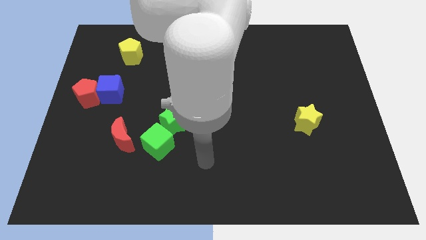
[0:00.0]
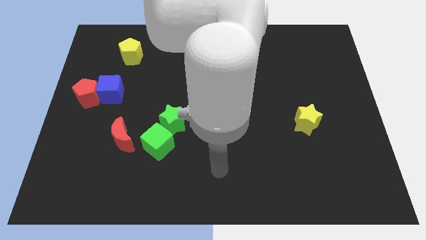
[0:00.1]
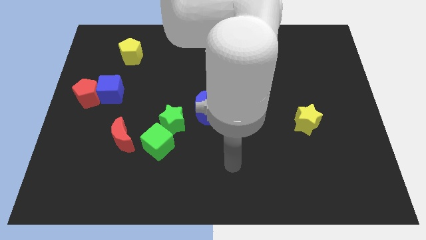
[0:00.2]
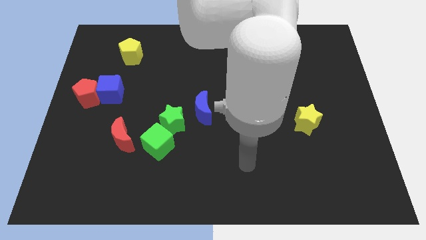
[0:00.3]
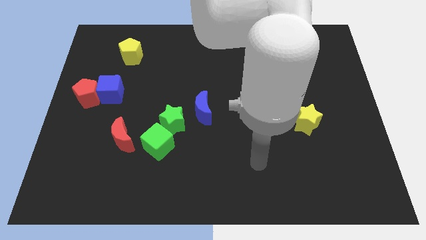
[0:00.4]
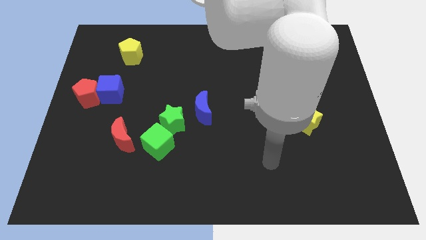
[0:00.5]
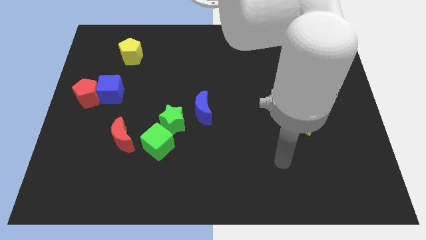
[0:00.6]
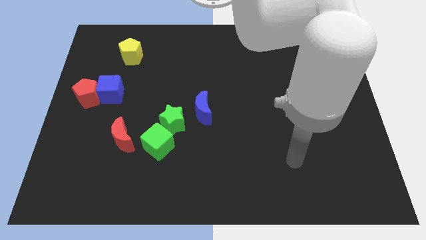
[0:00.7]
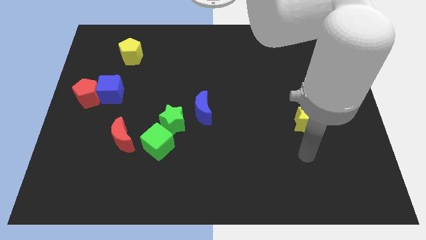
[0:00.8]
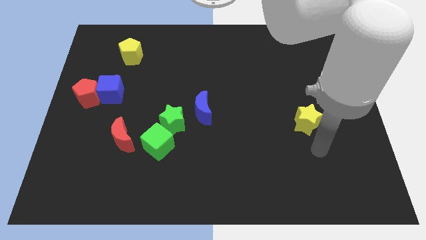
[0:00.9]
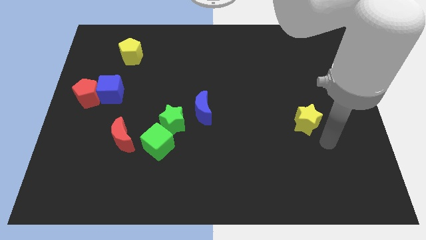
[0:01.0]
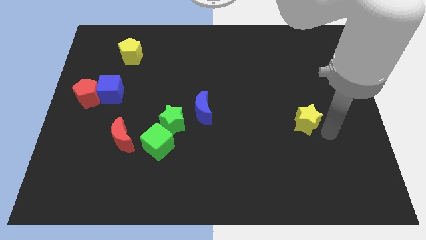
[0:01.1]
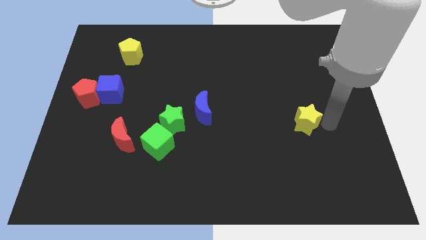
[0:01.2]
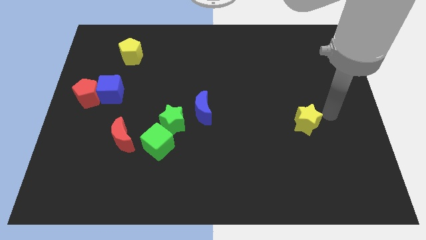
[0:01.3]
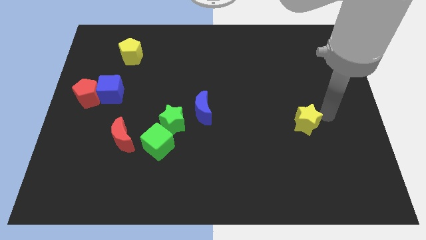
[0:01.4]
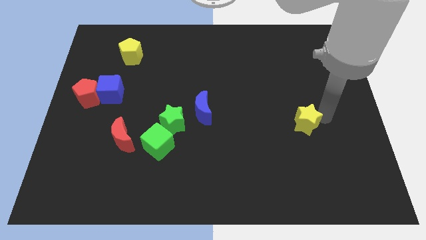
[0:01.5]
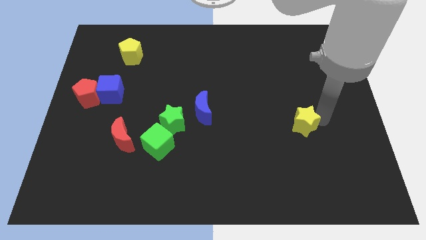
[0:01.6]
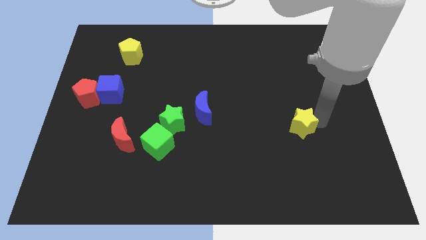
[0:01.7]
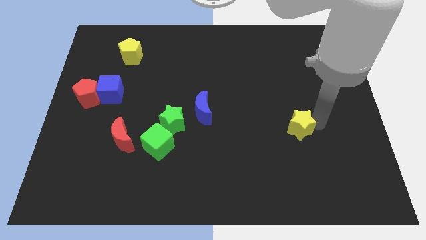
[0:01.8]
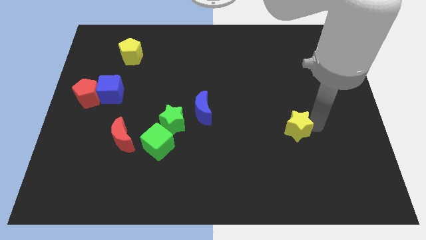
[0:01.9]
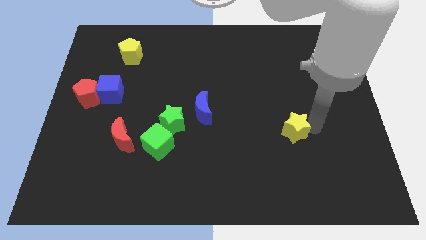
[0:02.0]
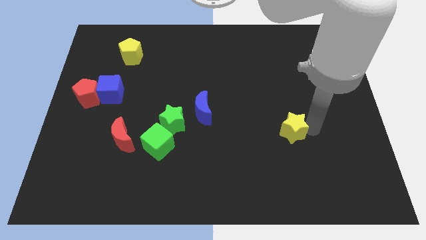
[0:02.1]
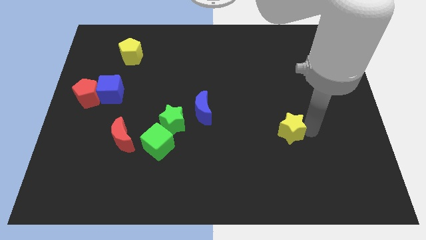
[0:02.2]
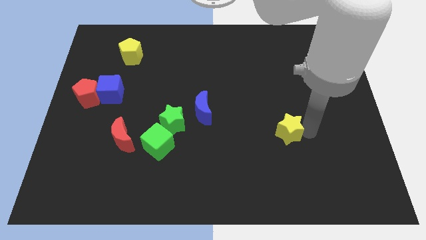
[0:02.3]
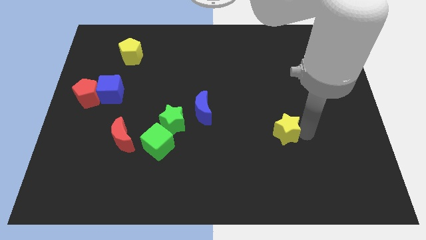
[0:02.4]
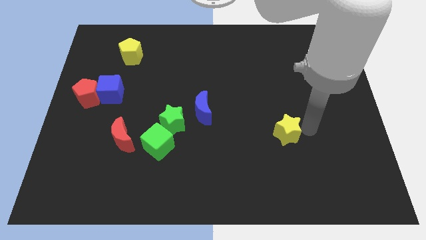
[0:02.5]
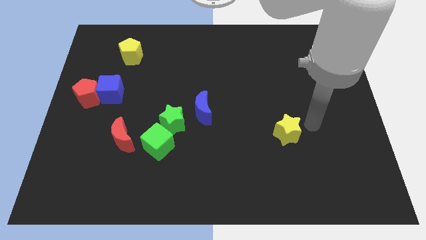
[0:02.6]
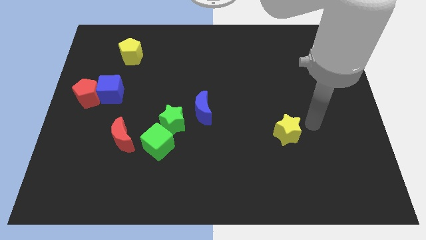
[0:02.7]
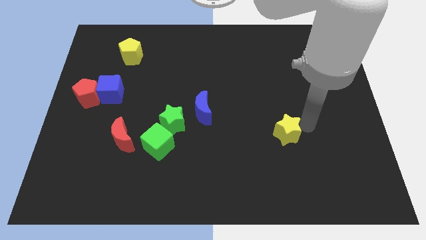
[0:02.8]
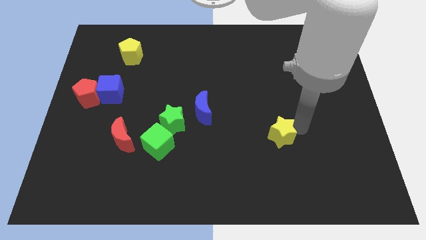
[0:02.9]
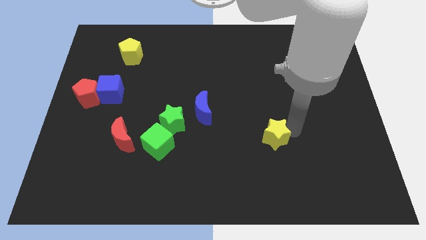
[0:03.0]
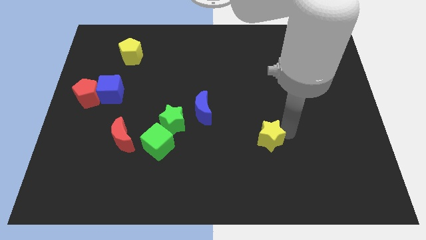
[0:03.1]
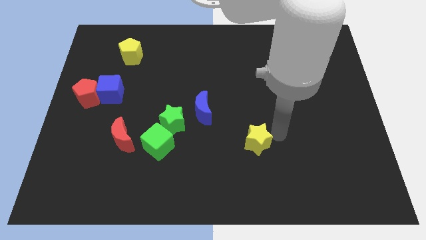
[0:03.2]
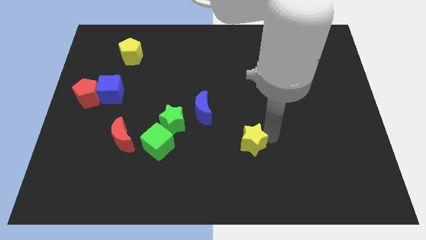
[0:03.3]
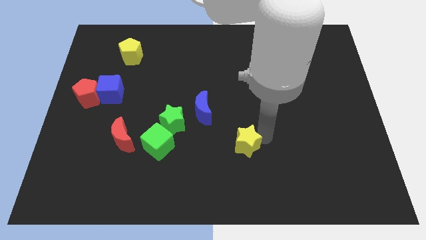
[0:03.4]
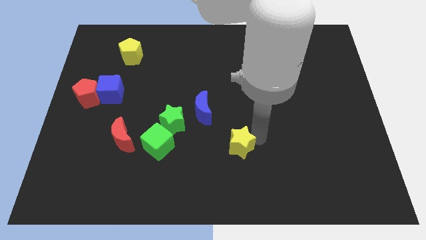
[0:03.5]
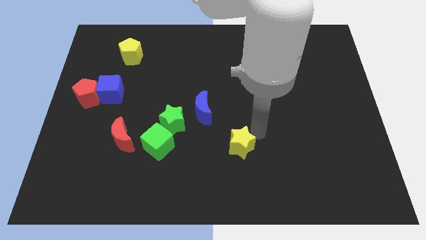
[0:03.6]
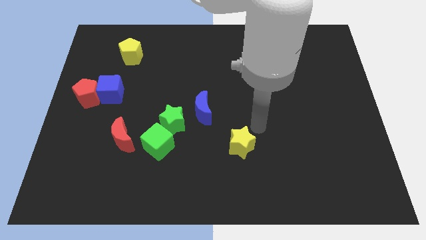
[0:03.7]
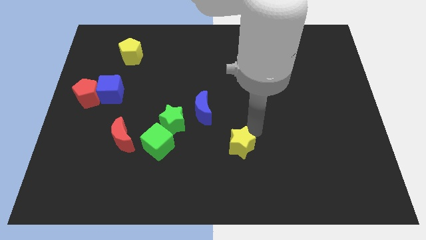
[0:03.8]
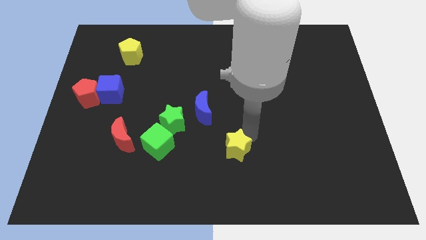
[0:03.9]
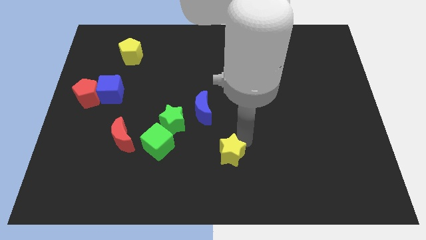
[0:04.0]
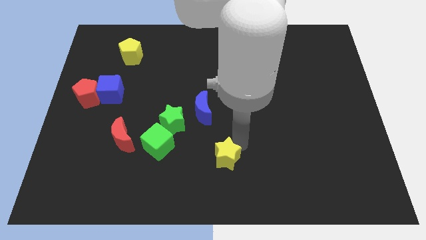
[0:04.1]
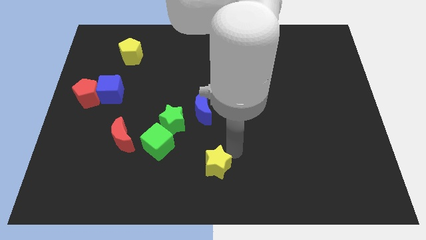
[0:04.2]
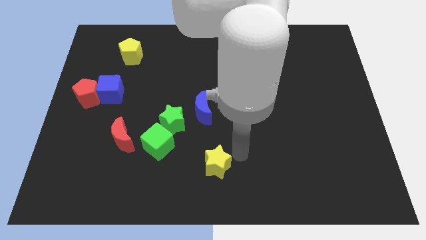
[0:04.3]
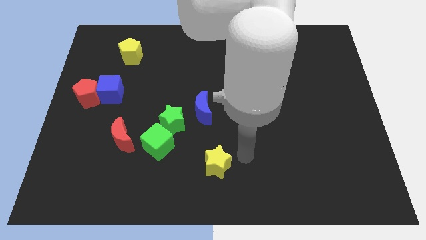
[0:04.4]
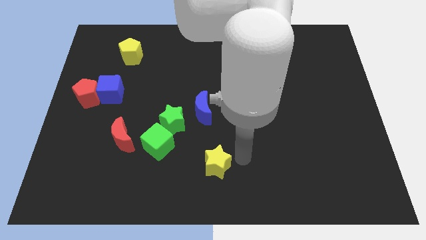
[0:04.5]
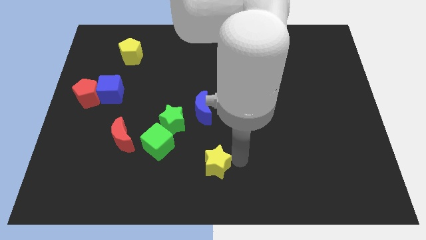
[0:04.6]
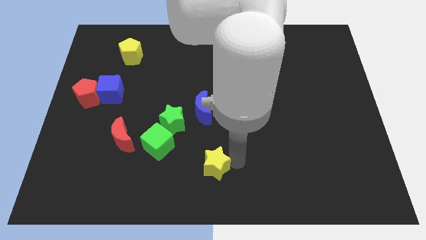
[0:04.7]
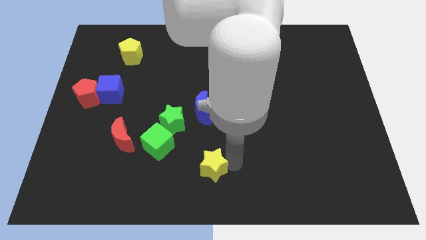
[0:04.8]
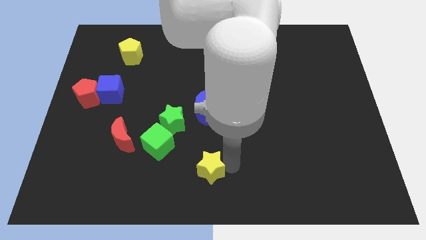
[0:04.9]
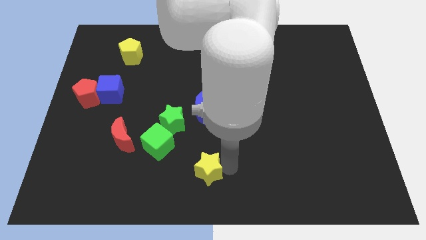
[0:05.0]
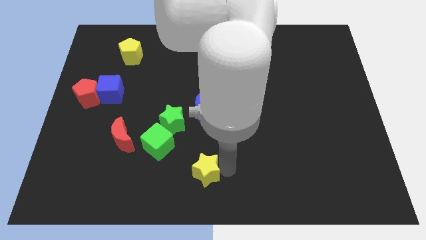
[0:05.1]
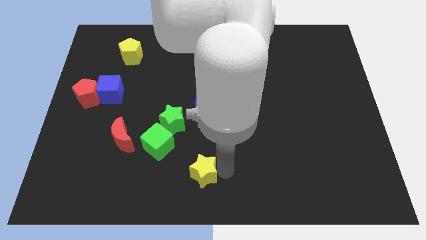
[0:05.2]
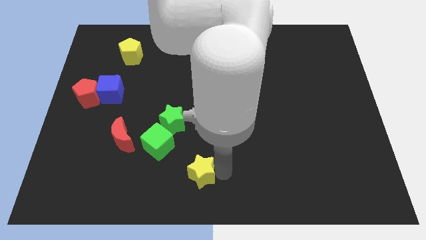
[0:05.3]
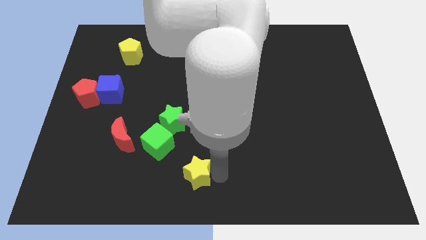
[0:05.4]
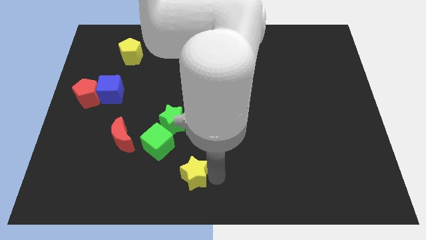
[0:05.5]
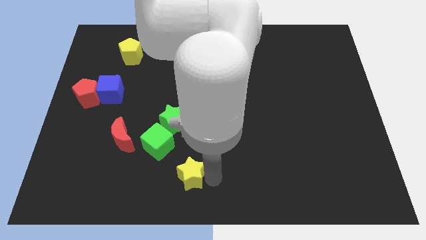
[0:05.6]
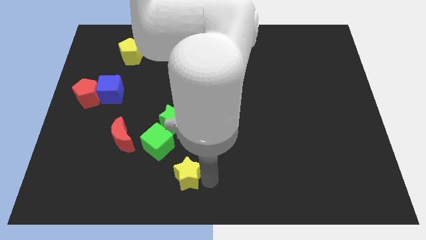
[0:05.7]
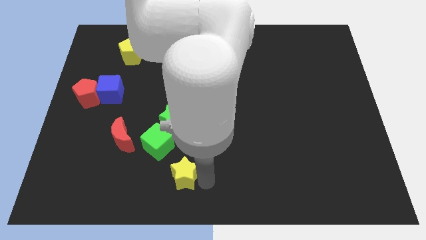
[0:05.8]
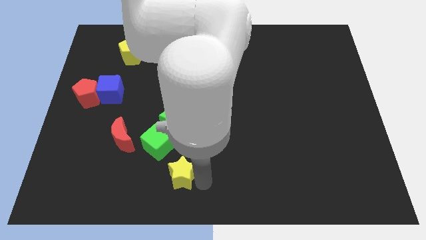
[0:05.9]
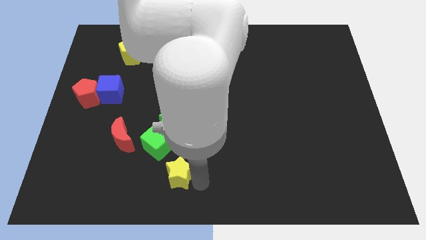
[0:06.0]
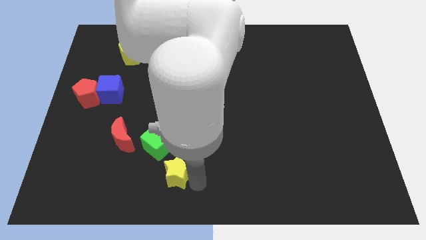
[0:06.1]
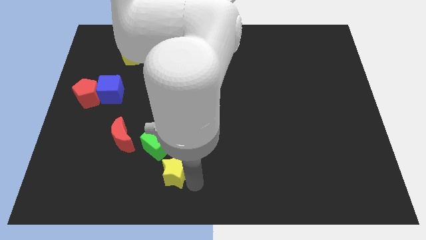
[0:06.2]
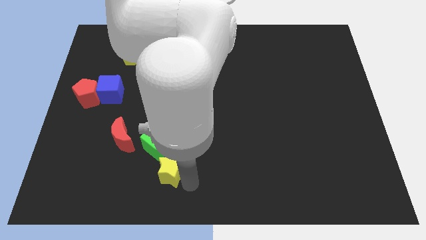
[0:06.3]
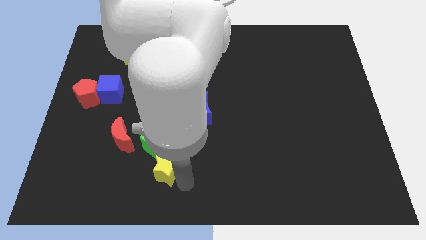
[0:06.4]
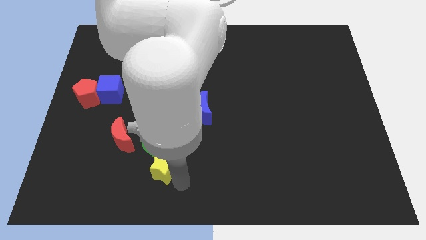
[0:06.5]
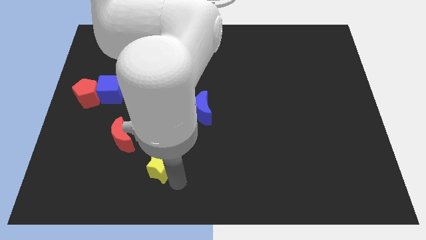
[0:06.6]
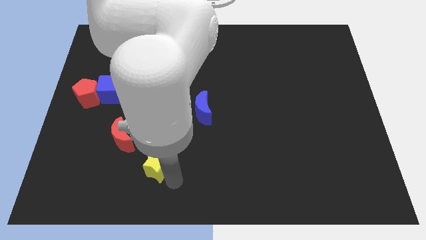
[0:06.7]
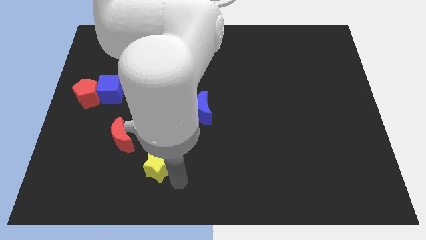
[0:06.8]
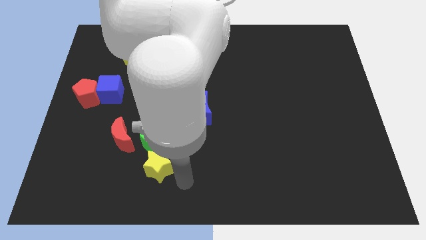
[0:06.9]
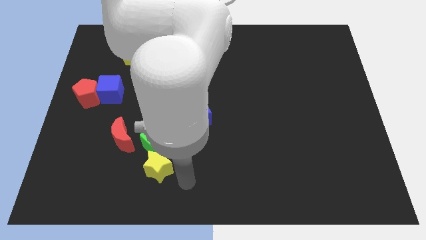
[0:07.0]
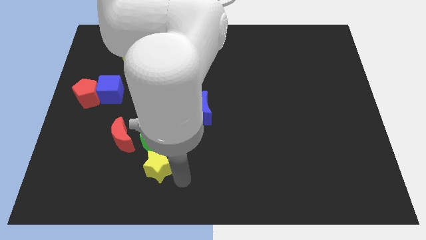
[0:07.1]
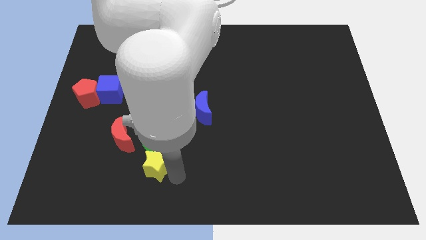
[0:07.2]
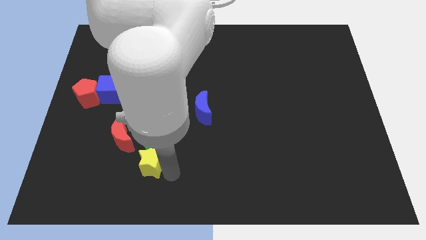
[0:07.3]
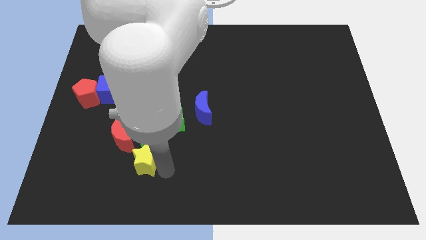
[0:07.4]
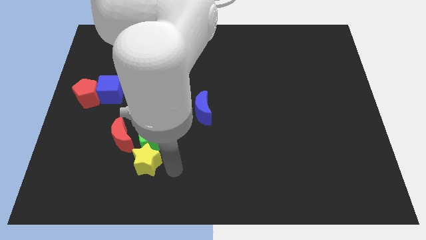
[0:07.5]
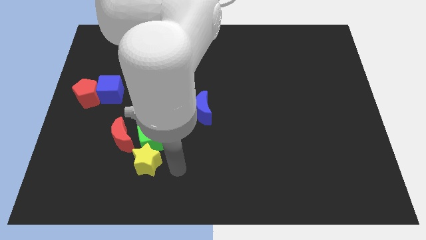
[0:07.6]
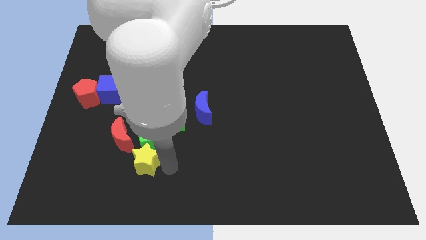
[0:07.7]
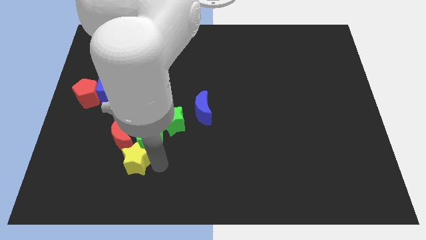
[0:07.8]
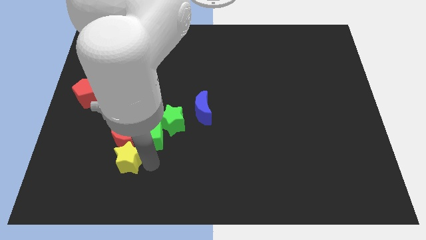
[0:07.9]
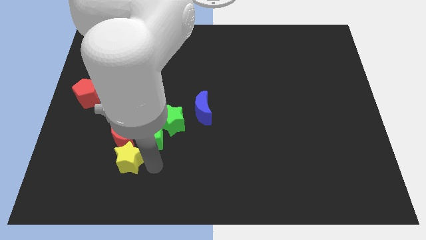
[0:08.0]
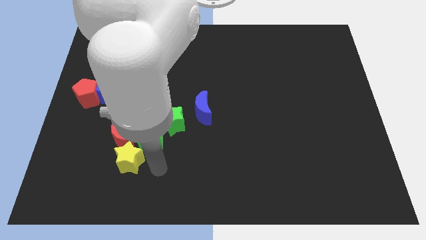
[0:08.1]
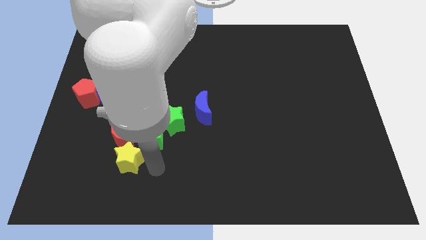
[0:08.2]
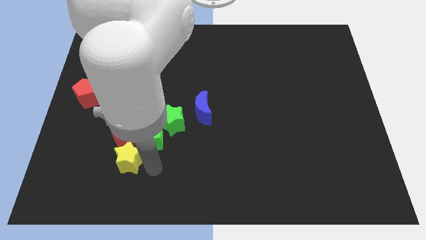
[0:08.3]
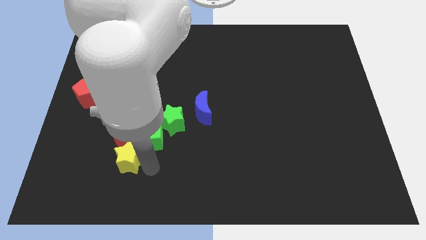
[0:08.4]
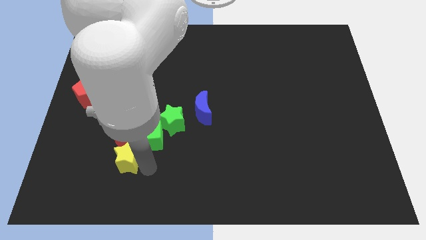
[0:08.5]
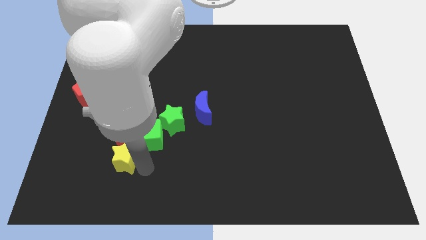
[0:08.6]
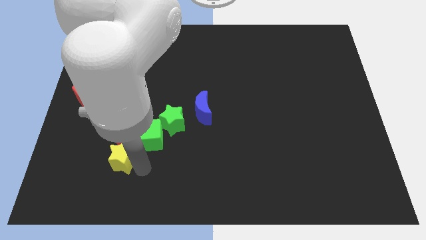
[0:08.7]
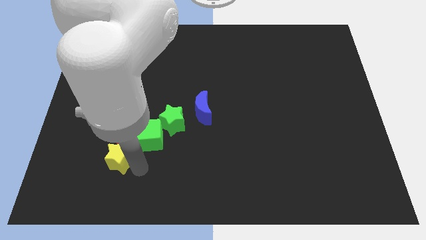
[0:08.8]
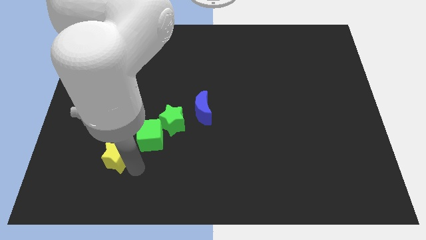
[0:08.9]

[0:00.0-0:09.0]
move the yellow star just left of the green cube
